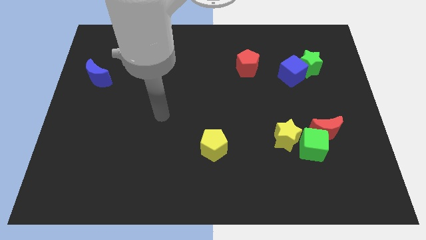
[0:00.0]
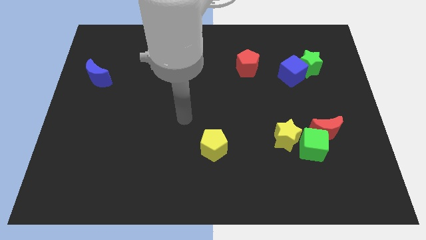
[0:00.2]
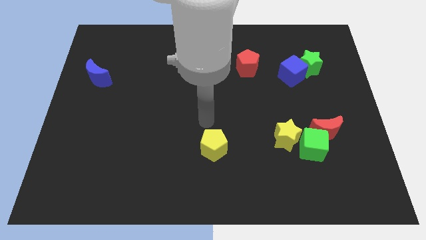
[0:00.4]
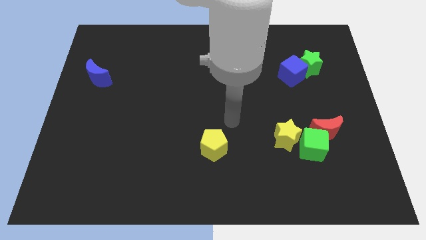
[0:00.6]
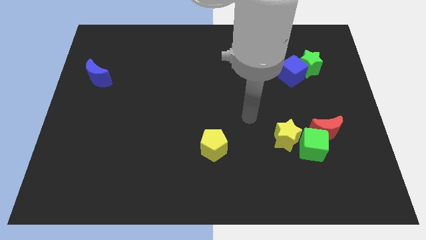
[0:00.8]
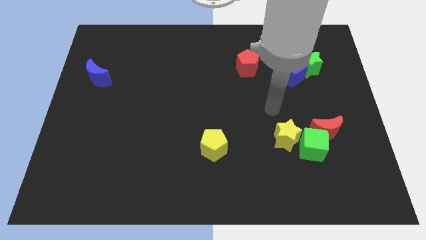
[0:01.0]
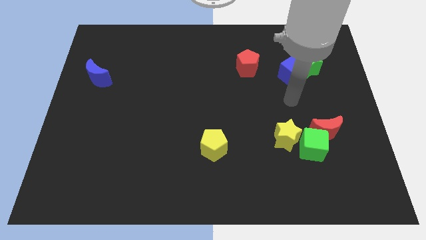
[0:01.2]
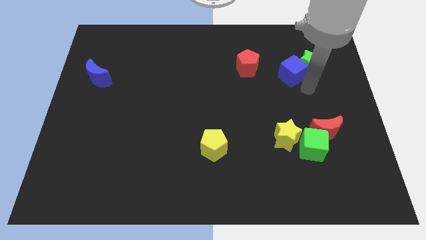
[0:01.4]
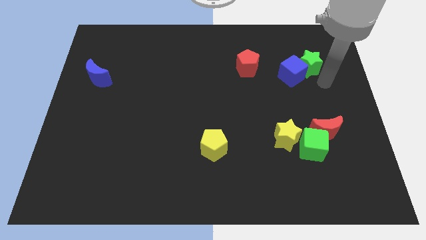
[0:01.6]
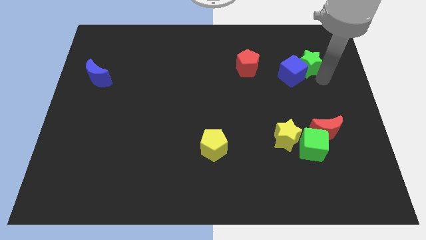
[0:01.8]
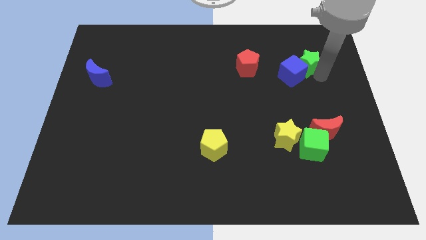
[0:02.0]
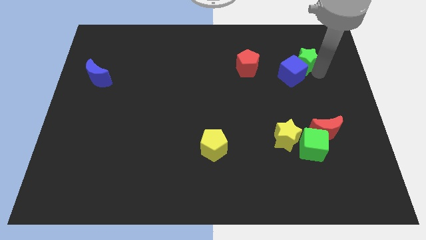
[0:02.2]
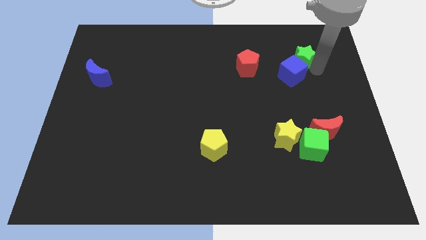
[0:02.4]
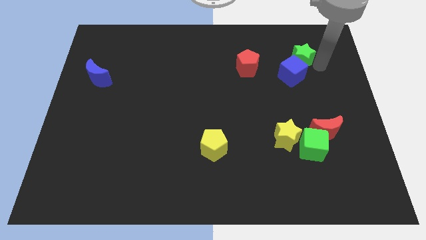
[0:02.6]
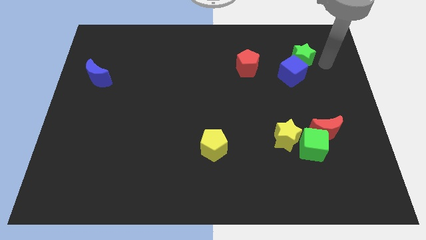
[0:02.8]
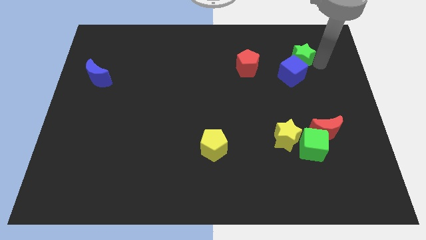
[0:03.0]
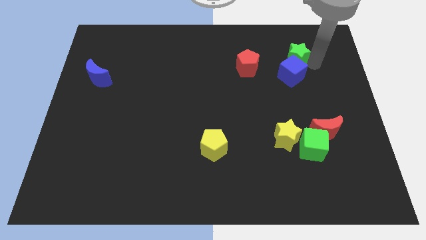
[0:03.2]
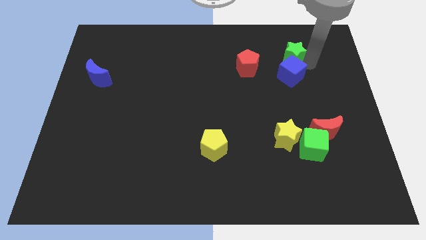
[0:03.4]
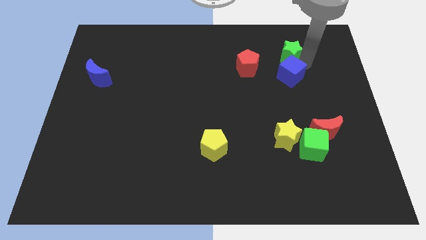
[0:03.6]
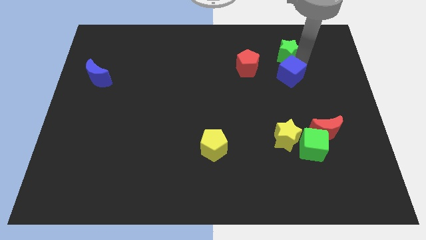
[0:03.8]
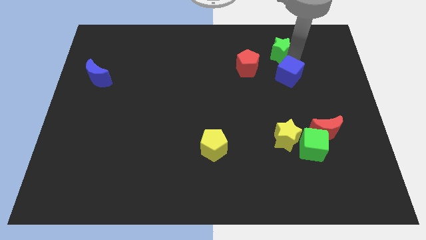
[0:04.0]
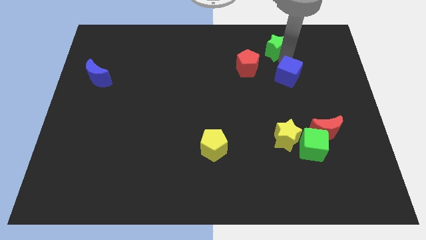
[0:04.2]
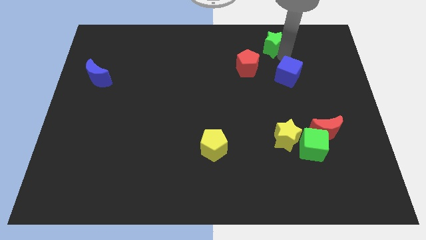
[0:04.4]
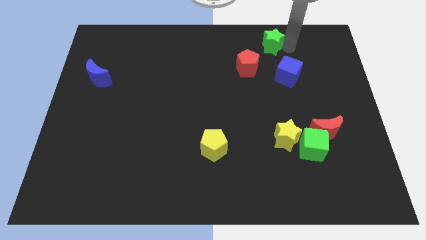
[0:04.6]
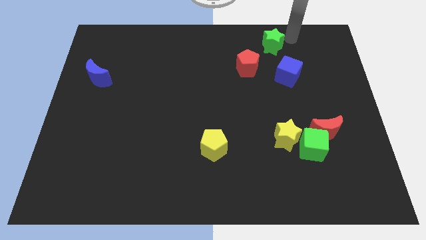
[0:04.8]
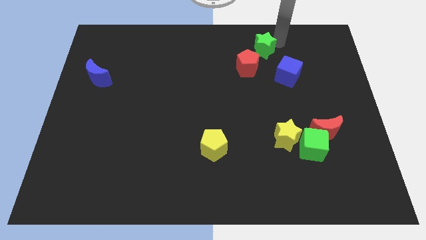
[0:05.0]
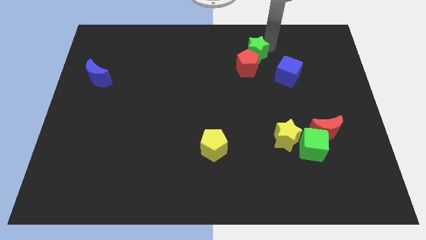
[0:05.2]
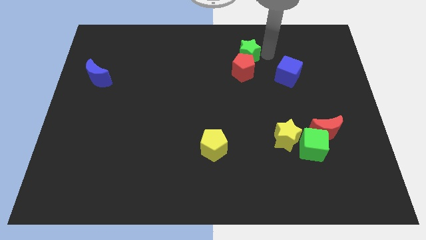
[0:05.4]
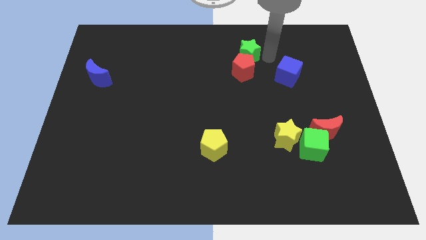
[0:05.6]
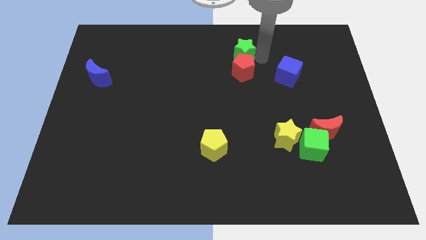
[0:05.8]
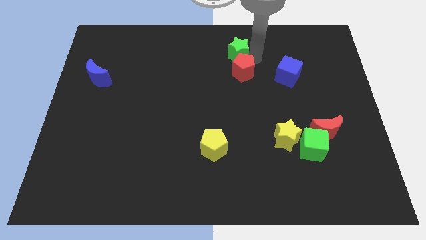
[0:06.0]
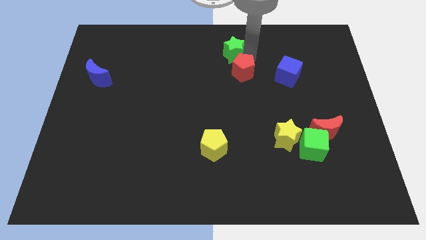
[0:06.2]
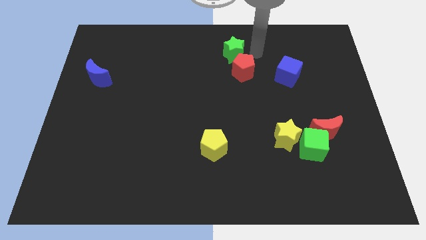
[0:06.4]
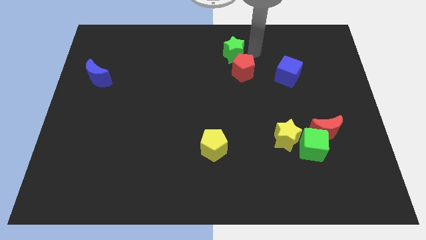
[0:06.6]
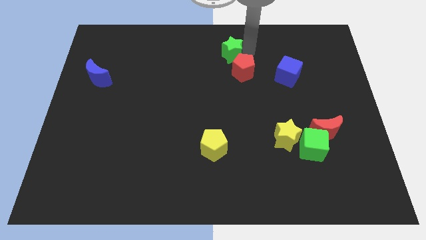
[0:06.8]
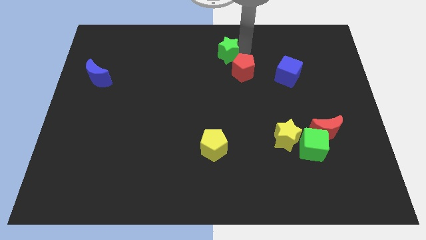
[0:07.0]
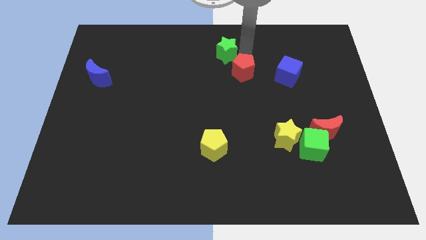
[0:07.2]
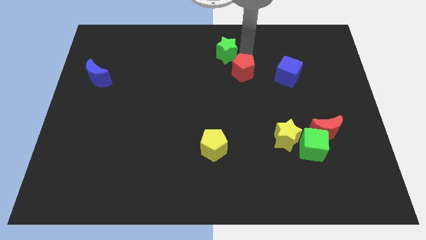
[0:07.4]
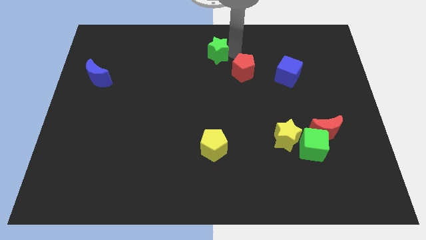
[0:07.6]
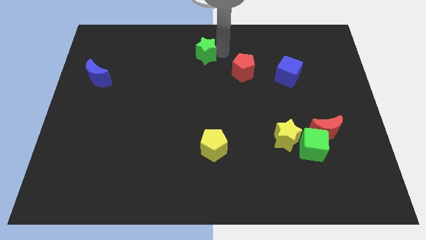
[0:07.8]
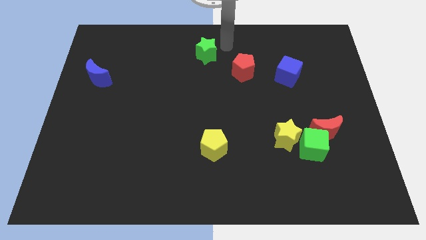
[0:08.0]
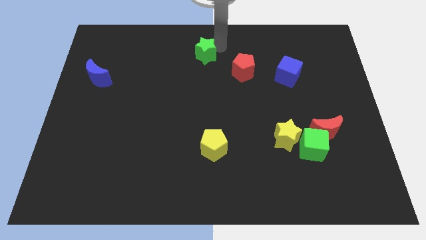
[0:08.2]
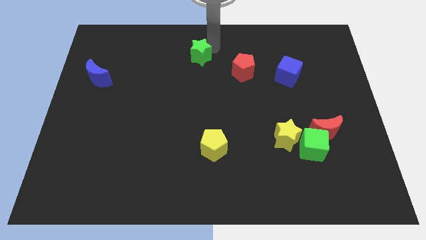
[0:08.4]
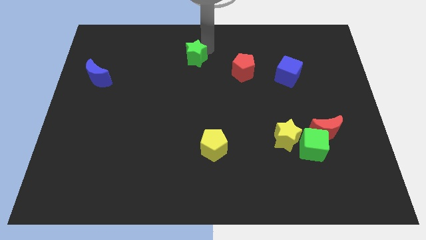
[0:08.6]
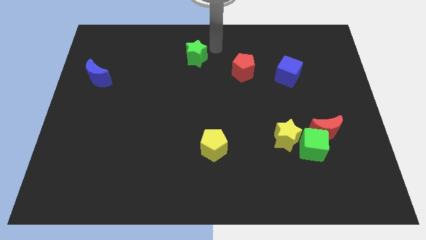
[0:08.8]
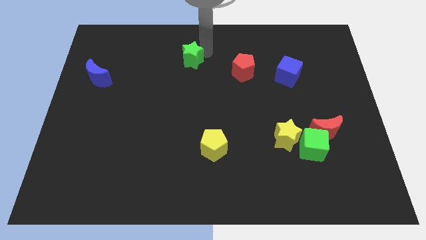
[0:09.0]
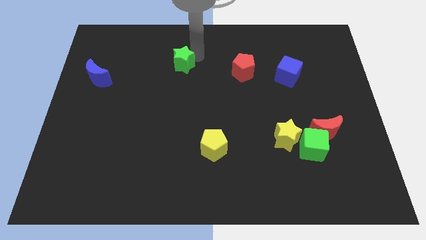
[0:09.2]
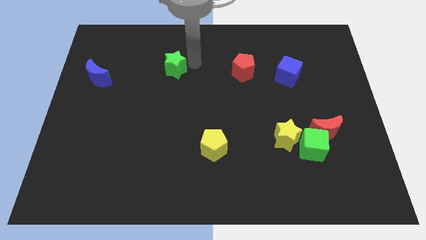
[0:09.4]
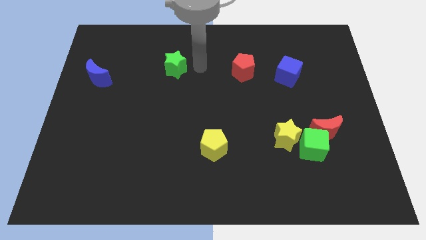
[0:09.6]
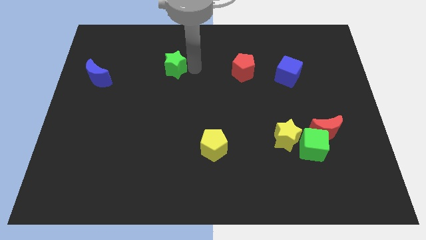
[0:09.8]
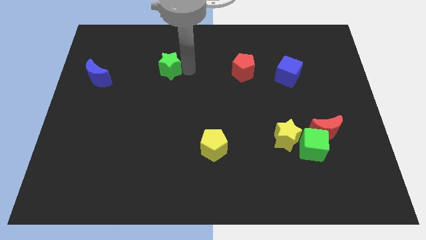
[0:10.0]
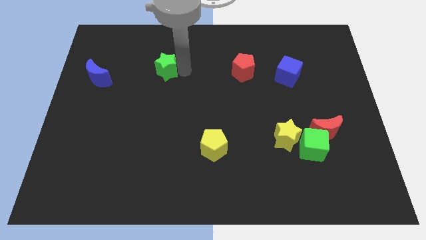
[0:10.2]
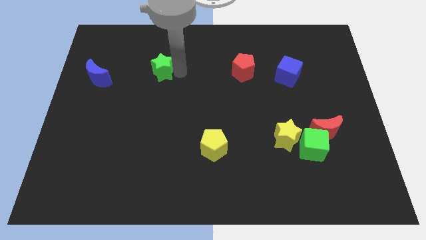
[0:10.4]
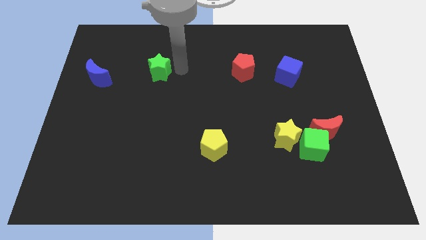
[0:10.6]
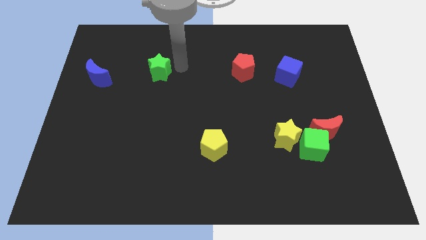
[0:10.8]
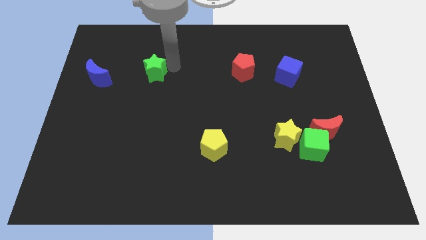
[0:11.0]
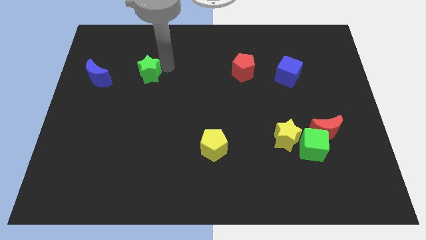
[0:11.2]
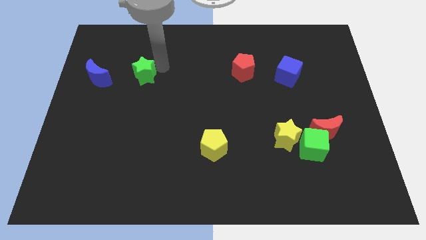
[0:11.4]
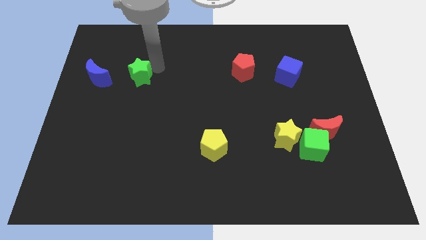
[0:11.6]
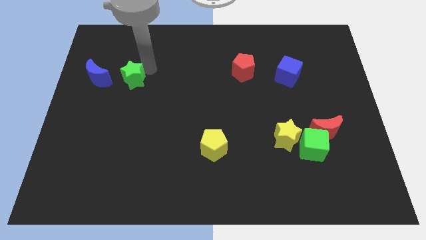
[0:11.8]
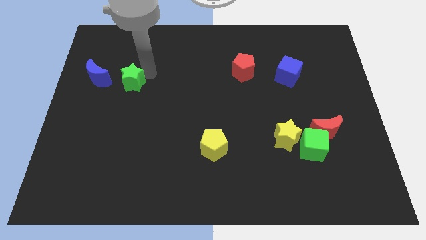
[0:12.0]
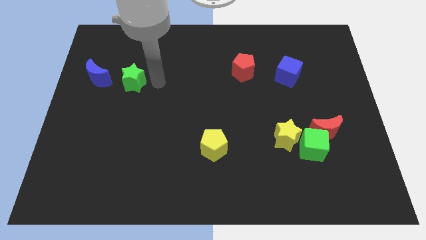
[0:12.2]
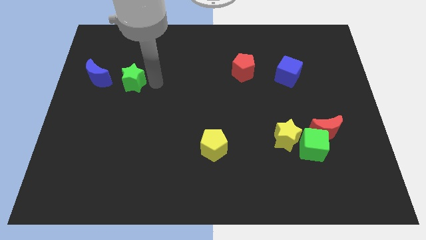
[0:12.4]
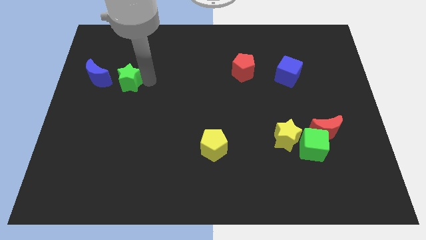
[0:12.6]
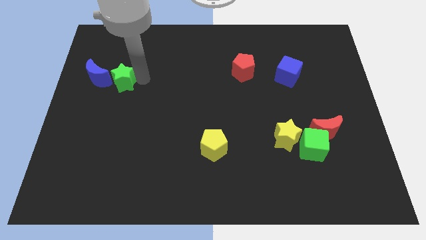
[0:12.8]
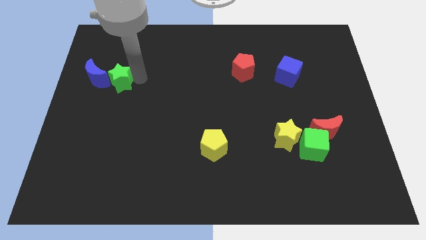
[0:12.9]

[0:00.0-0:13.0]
move the green star next to the blue moon
